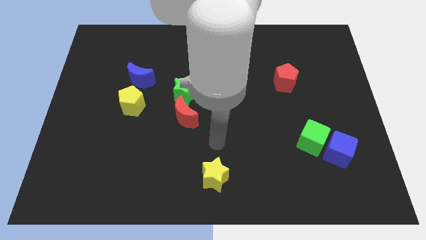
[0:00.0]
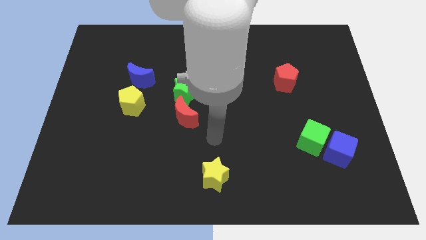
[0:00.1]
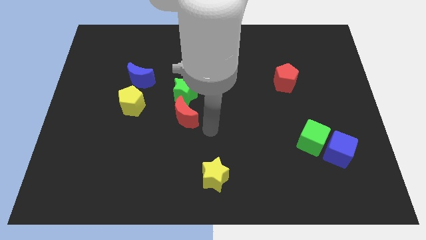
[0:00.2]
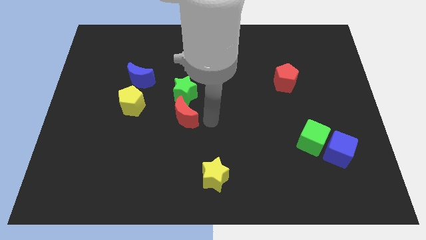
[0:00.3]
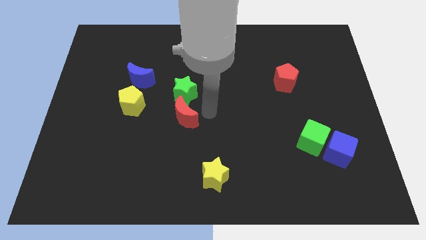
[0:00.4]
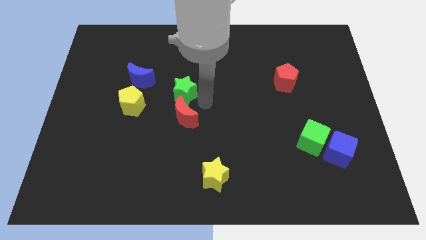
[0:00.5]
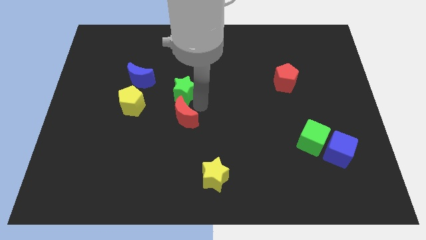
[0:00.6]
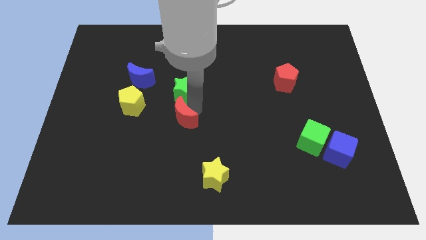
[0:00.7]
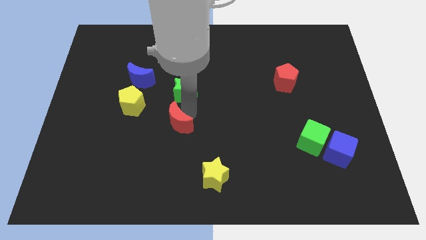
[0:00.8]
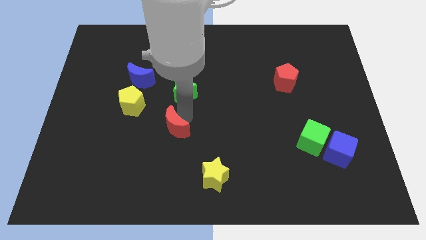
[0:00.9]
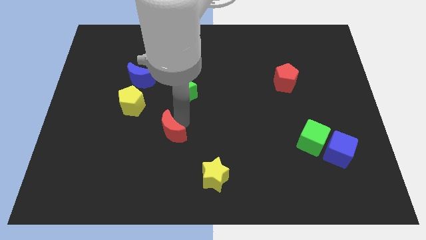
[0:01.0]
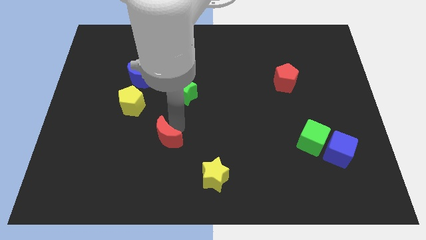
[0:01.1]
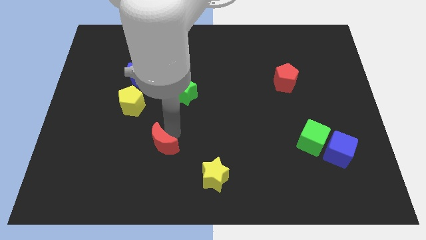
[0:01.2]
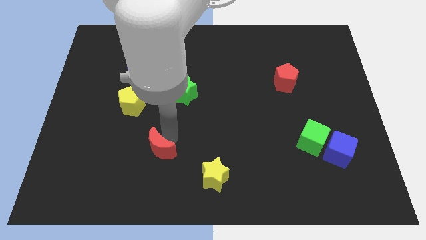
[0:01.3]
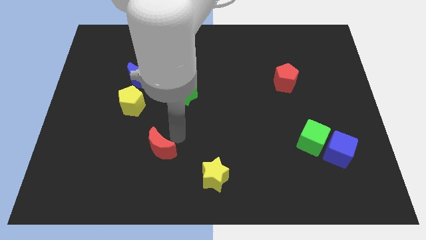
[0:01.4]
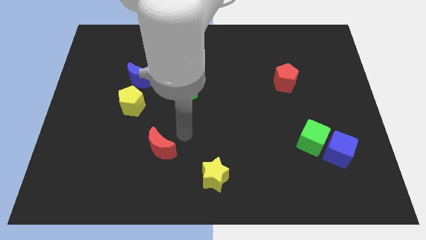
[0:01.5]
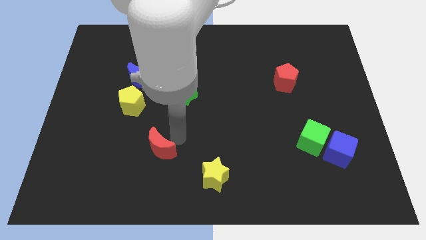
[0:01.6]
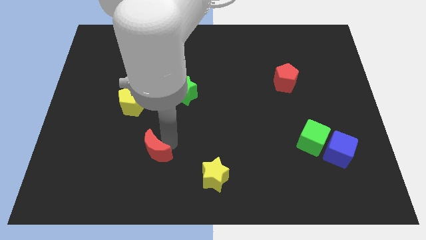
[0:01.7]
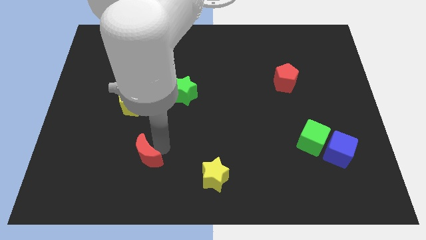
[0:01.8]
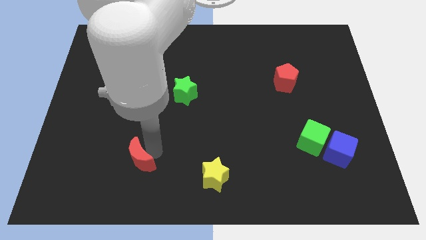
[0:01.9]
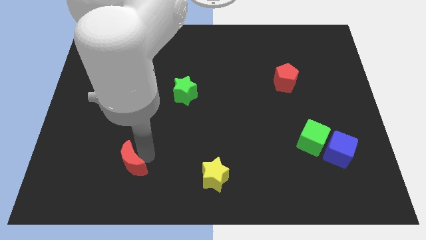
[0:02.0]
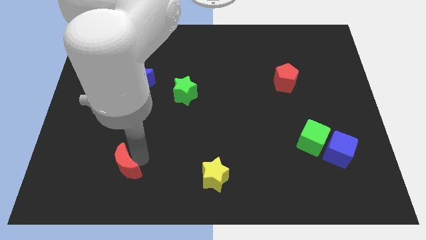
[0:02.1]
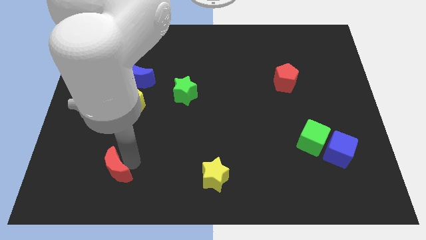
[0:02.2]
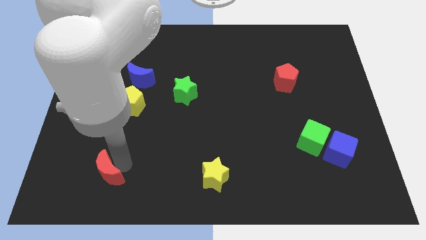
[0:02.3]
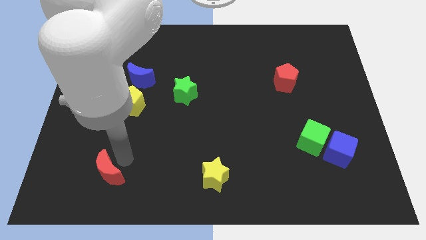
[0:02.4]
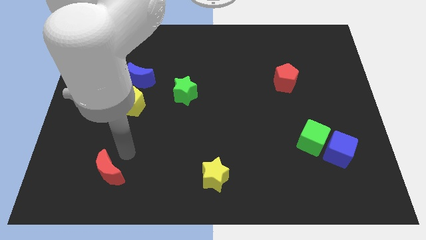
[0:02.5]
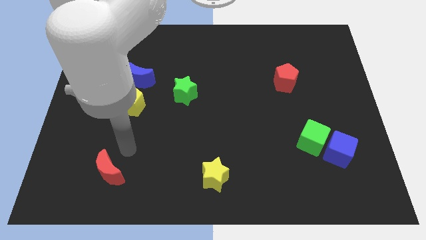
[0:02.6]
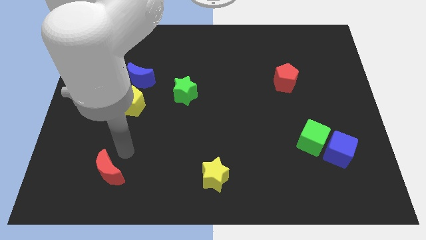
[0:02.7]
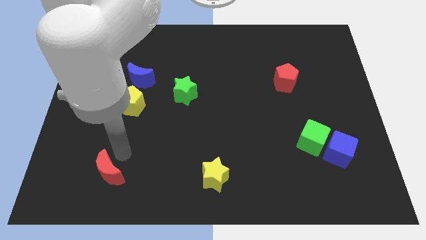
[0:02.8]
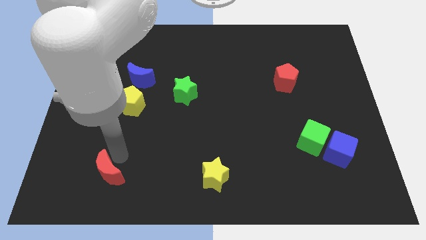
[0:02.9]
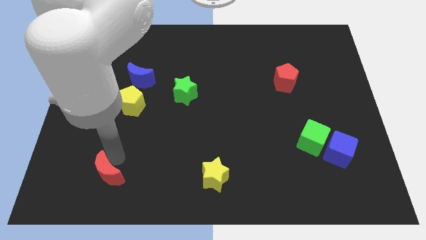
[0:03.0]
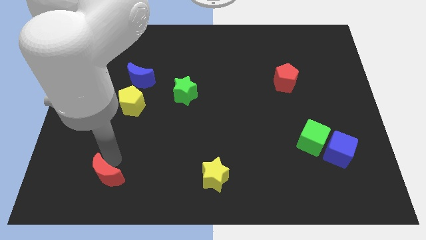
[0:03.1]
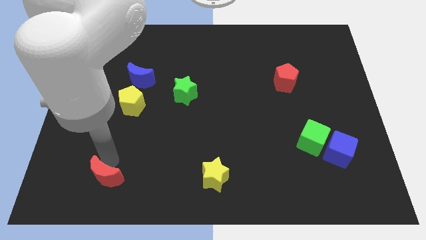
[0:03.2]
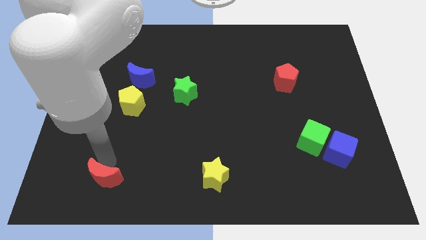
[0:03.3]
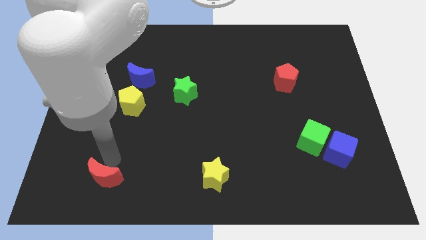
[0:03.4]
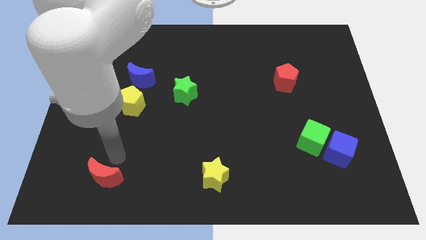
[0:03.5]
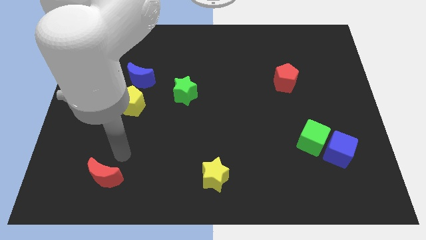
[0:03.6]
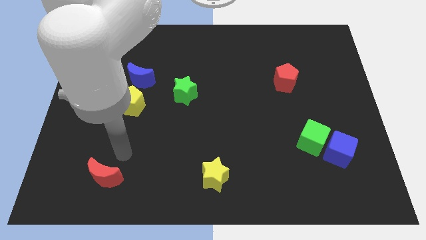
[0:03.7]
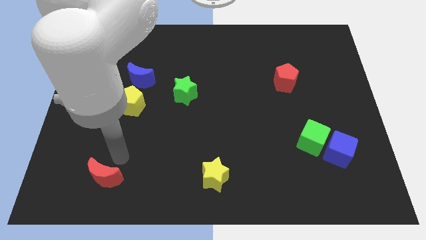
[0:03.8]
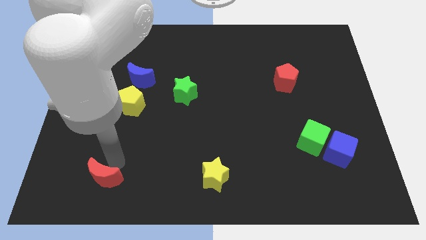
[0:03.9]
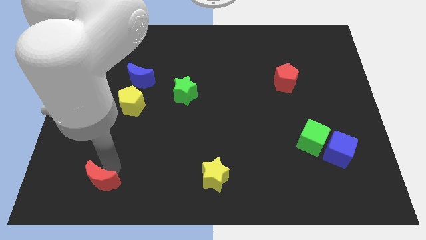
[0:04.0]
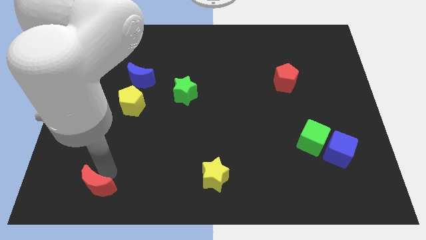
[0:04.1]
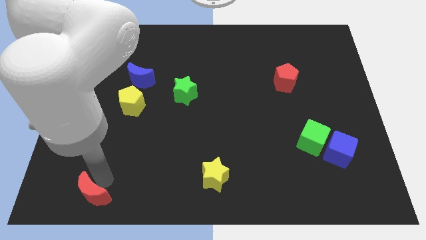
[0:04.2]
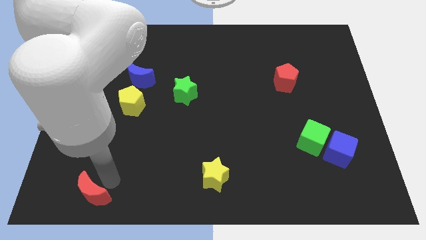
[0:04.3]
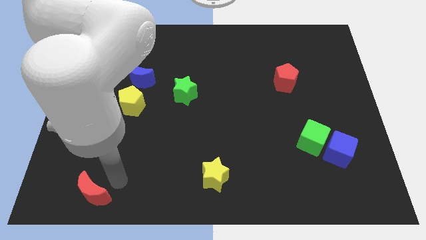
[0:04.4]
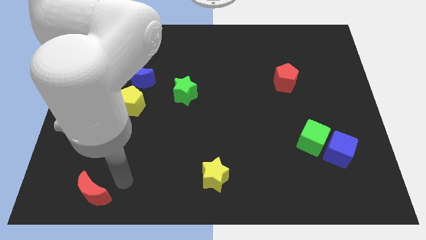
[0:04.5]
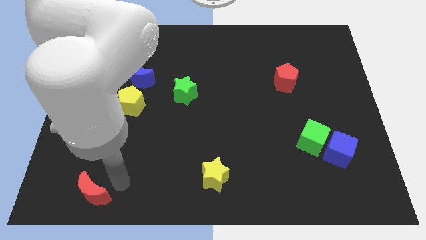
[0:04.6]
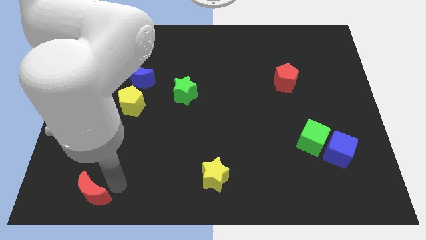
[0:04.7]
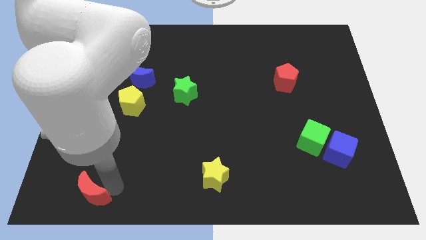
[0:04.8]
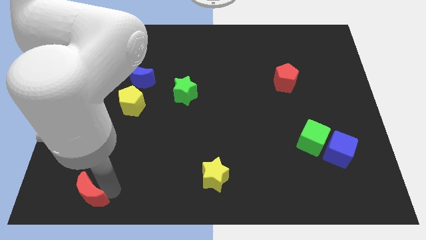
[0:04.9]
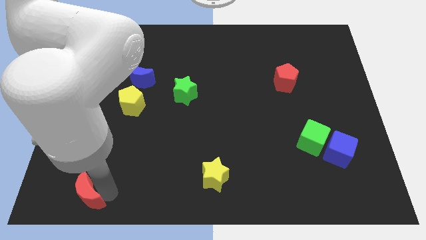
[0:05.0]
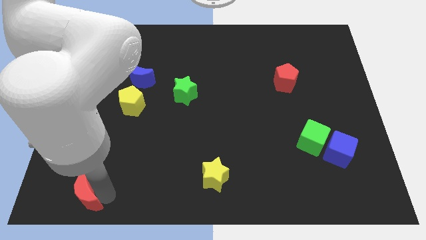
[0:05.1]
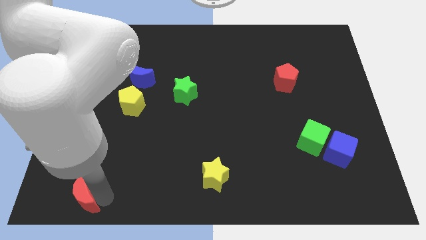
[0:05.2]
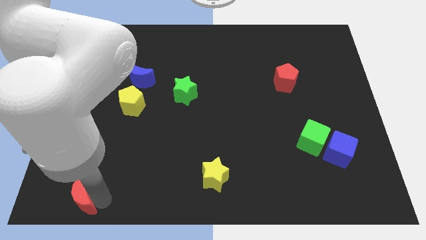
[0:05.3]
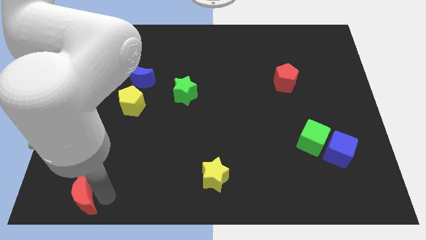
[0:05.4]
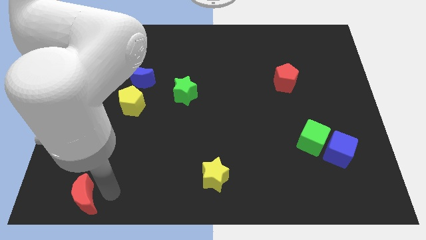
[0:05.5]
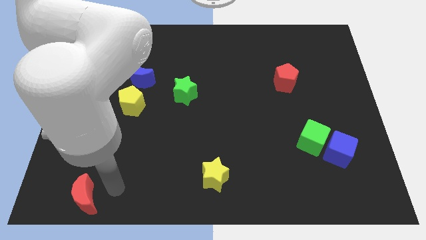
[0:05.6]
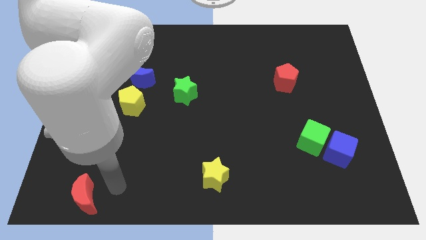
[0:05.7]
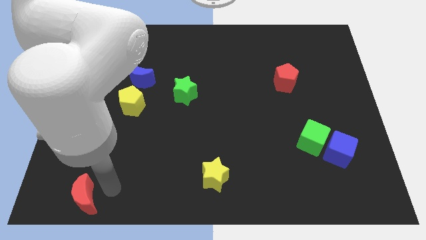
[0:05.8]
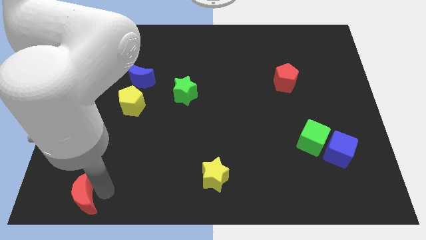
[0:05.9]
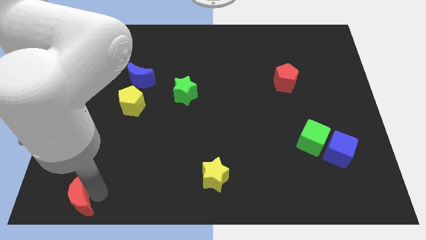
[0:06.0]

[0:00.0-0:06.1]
put the red moon to the lower left corner

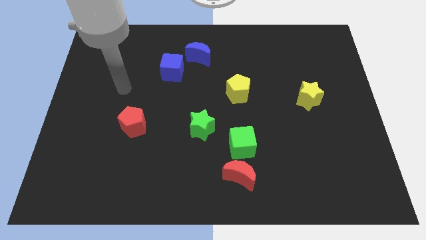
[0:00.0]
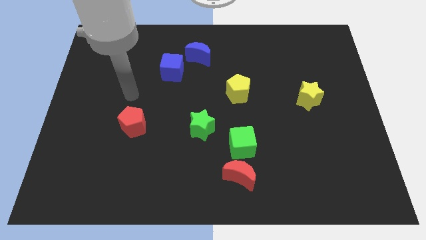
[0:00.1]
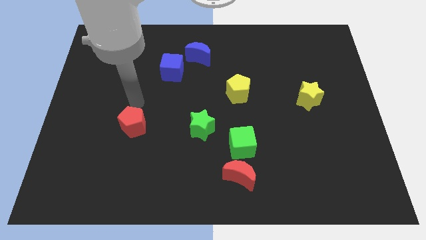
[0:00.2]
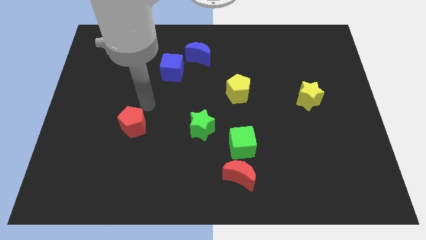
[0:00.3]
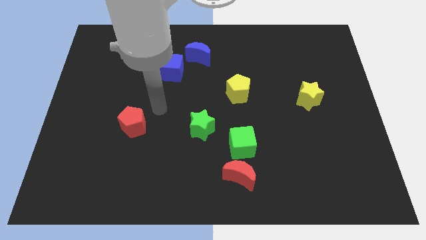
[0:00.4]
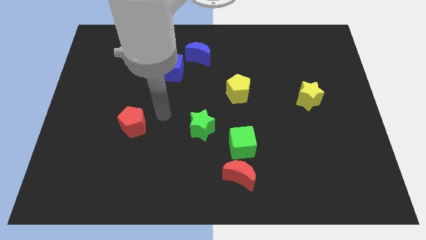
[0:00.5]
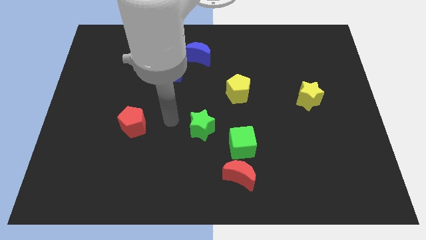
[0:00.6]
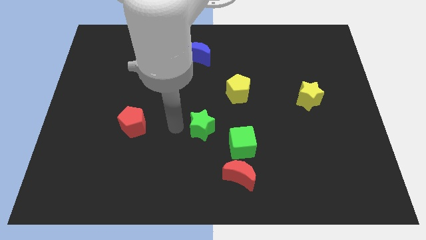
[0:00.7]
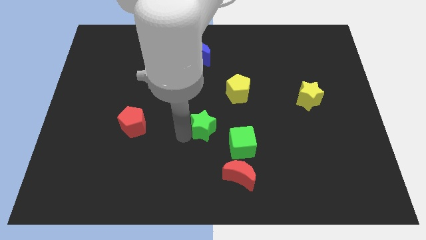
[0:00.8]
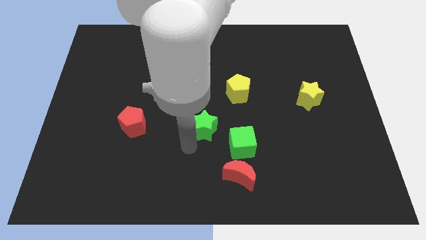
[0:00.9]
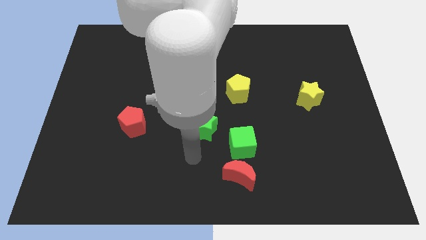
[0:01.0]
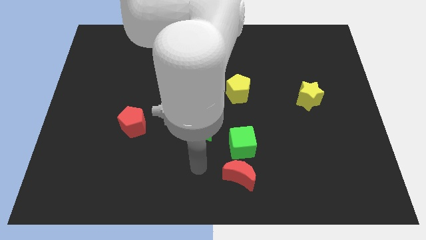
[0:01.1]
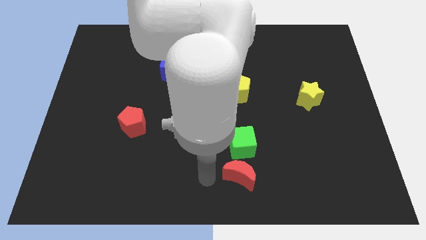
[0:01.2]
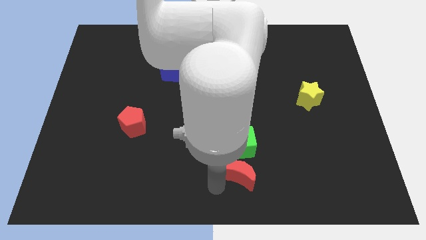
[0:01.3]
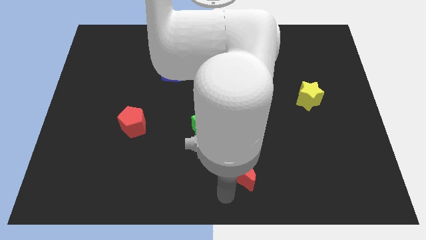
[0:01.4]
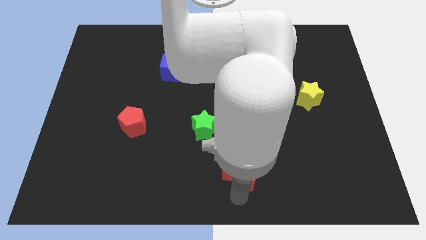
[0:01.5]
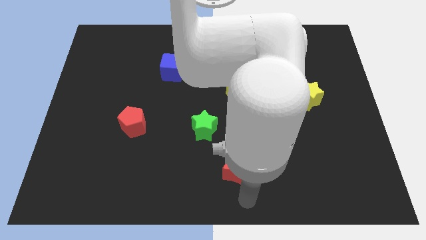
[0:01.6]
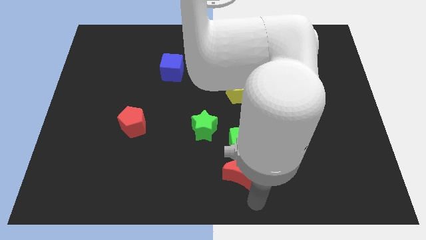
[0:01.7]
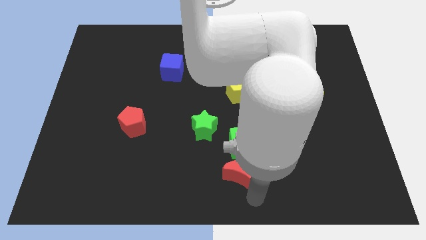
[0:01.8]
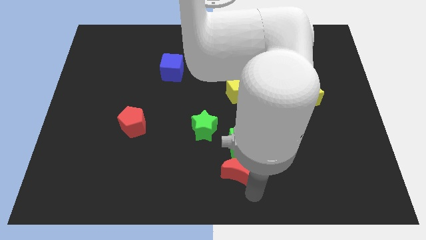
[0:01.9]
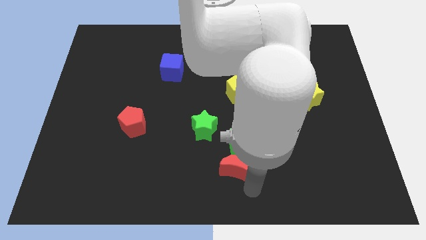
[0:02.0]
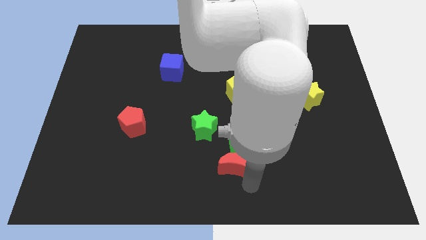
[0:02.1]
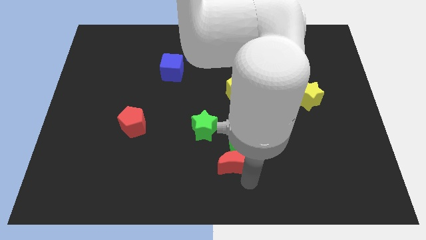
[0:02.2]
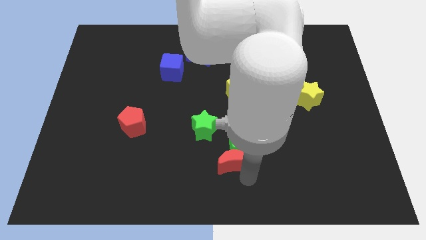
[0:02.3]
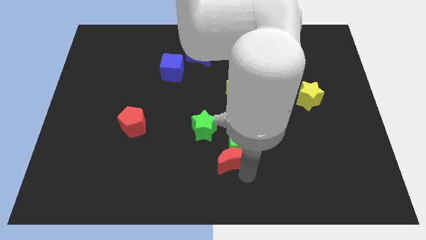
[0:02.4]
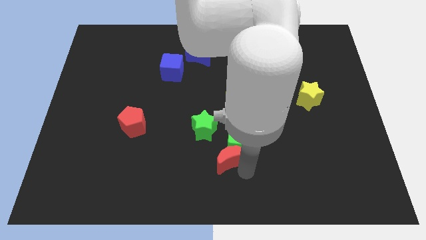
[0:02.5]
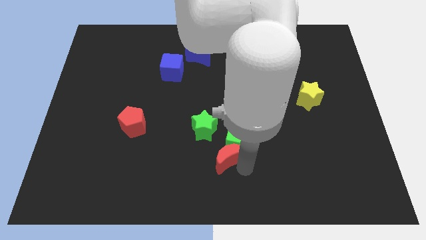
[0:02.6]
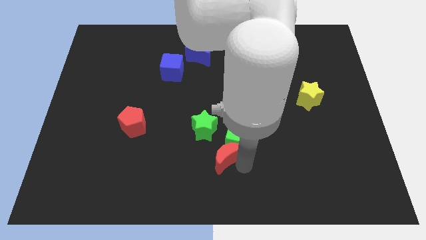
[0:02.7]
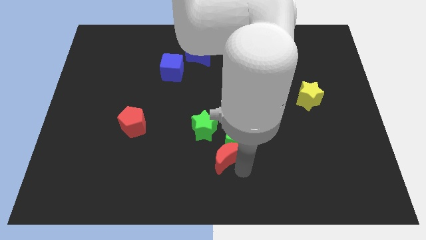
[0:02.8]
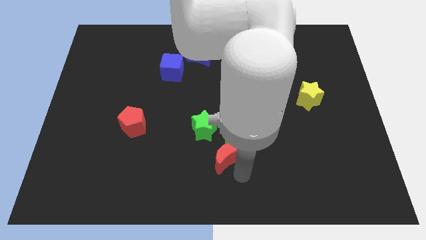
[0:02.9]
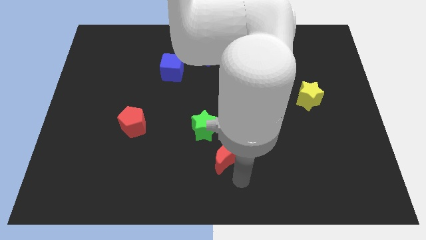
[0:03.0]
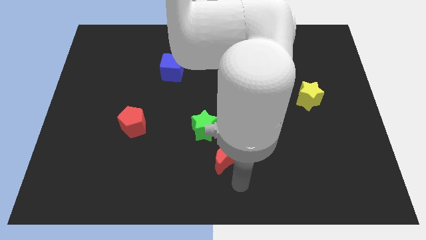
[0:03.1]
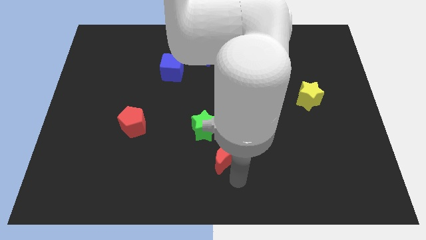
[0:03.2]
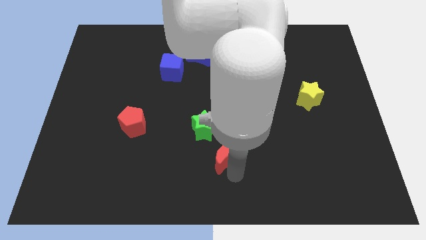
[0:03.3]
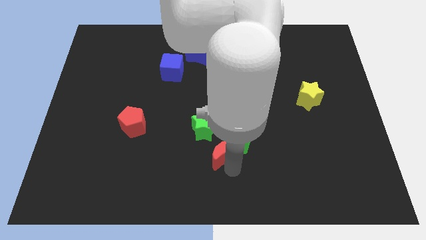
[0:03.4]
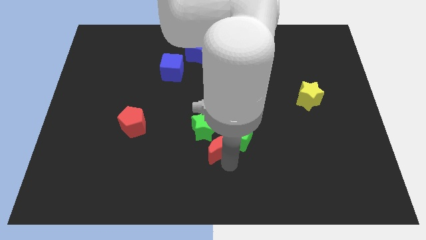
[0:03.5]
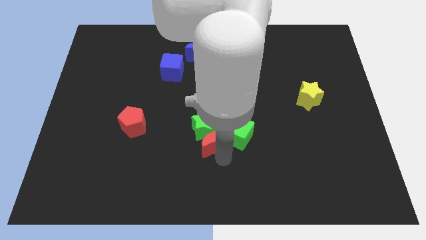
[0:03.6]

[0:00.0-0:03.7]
move the red moon to the middle
